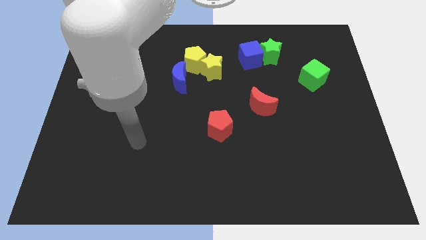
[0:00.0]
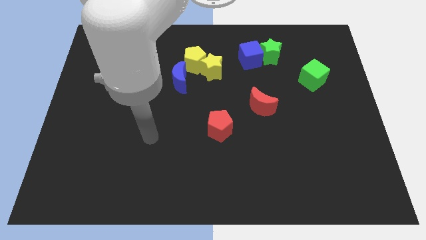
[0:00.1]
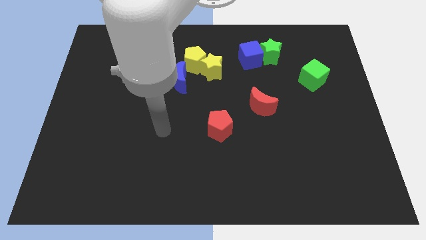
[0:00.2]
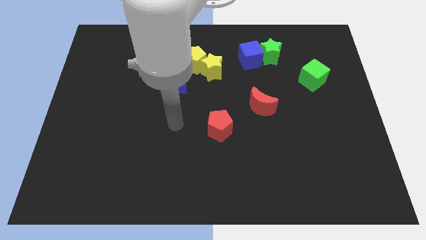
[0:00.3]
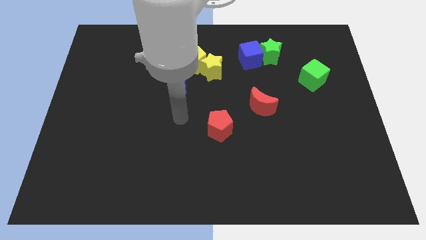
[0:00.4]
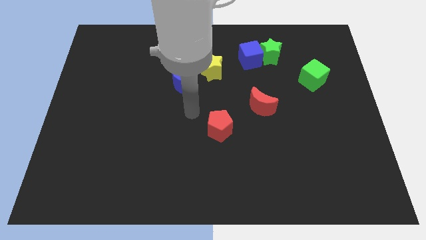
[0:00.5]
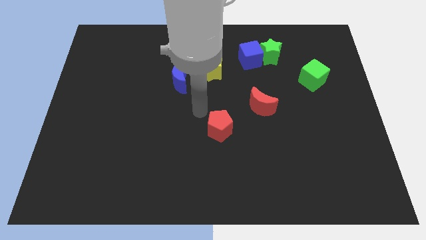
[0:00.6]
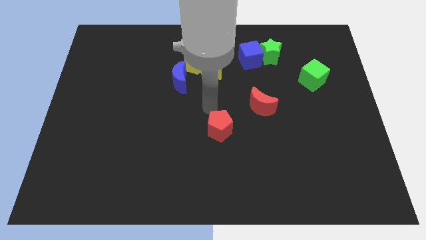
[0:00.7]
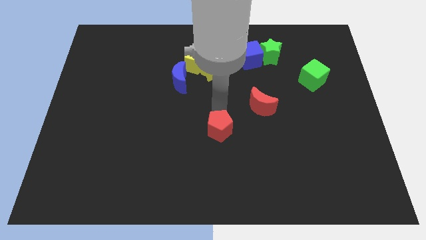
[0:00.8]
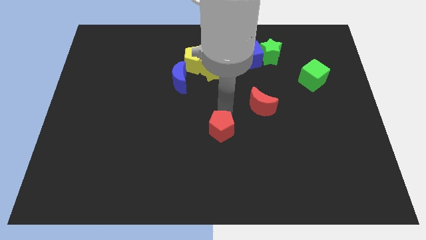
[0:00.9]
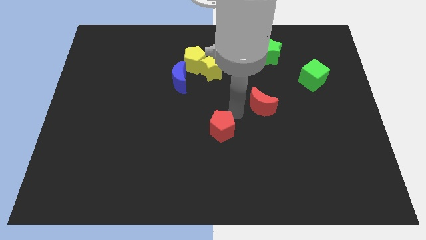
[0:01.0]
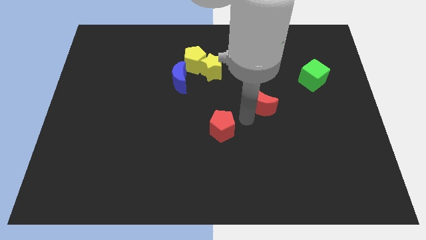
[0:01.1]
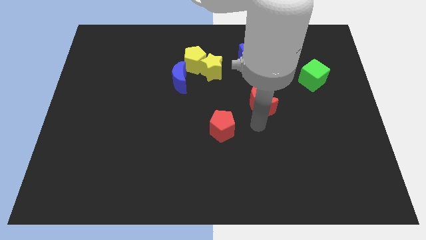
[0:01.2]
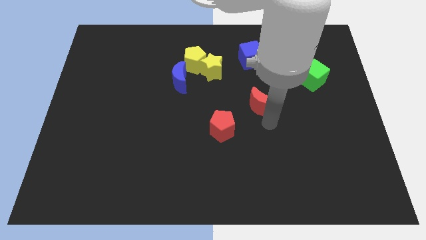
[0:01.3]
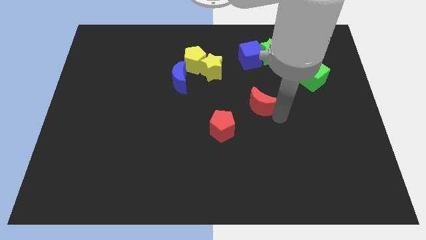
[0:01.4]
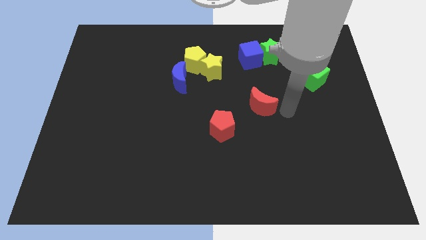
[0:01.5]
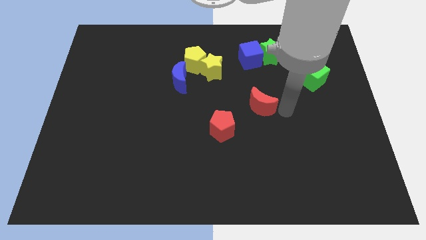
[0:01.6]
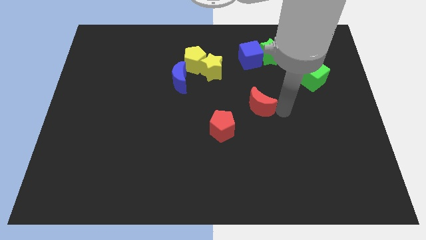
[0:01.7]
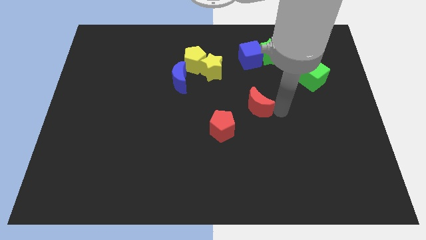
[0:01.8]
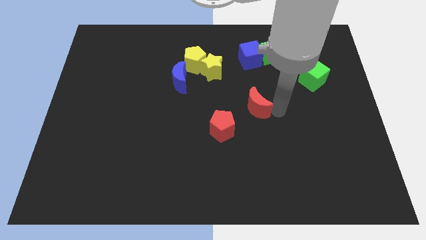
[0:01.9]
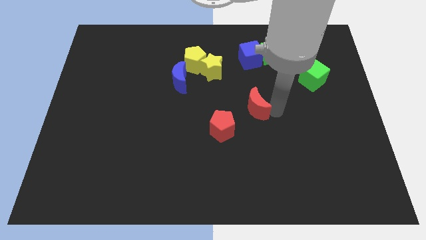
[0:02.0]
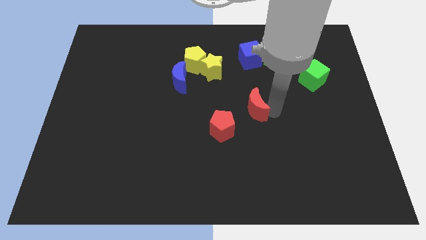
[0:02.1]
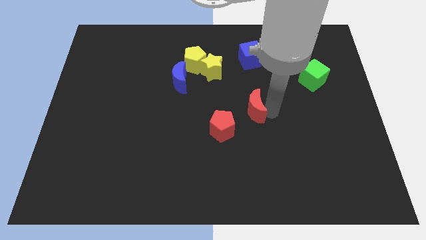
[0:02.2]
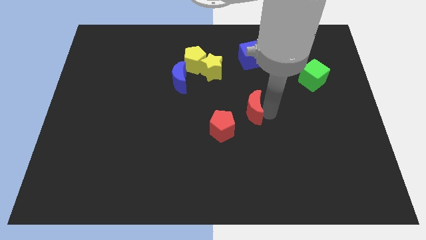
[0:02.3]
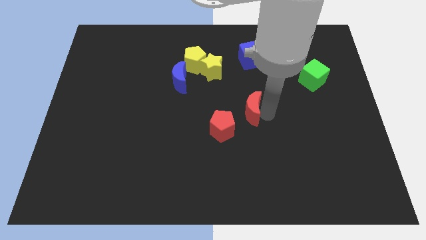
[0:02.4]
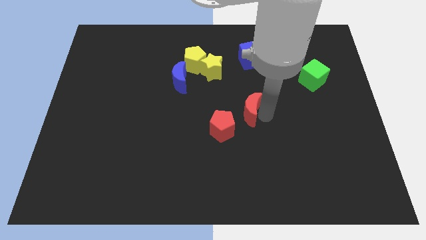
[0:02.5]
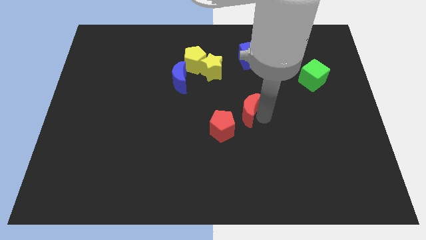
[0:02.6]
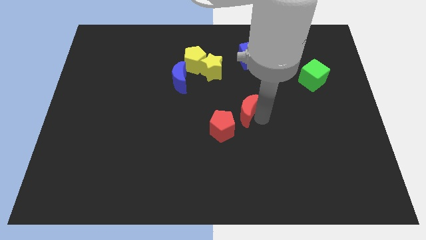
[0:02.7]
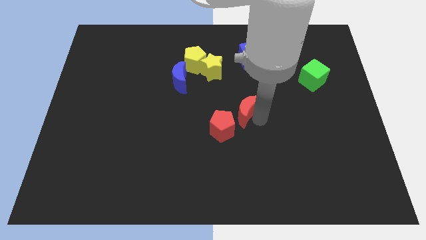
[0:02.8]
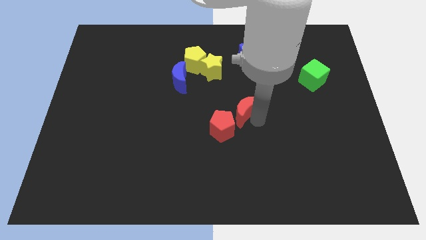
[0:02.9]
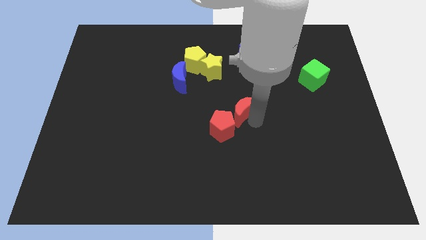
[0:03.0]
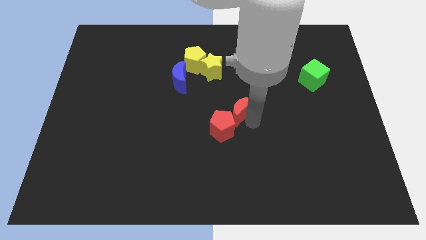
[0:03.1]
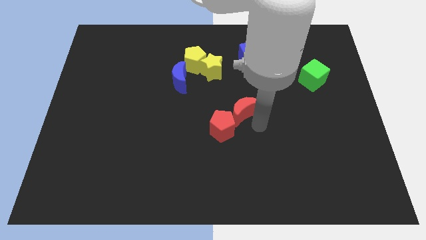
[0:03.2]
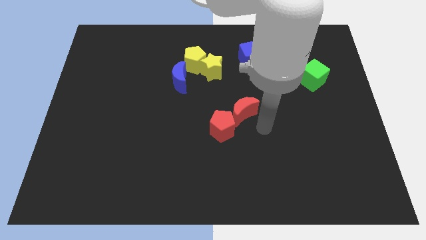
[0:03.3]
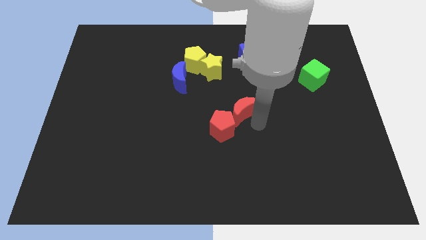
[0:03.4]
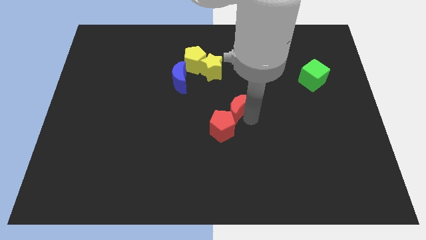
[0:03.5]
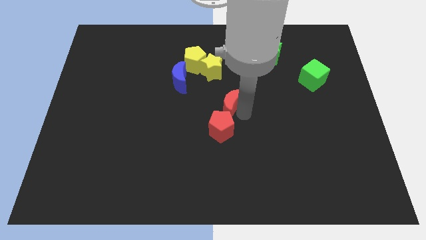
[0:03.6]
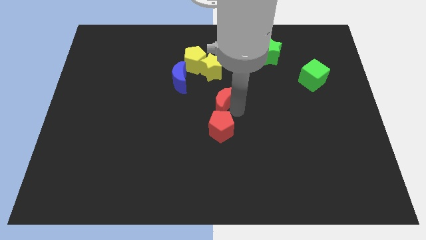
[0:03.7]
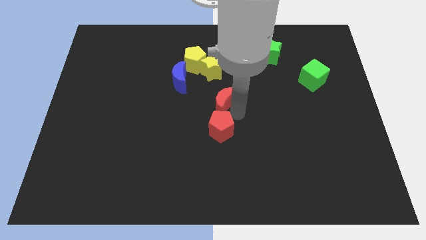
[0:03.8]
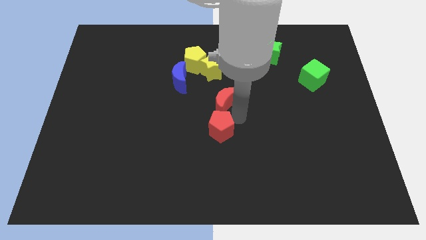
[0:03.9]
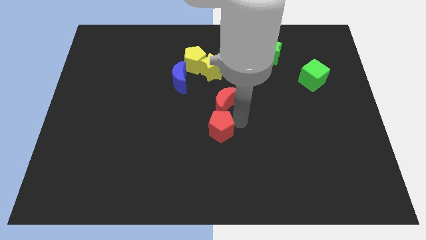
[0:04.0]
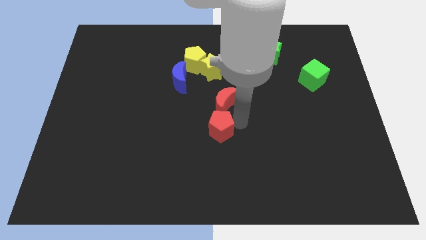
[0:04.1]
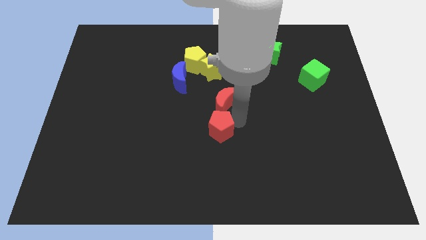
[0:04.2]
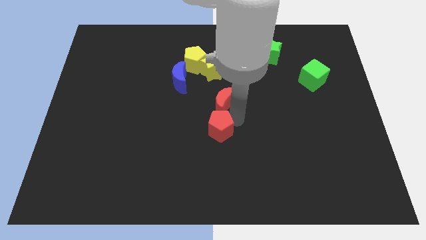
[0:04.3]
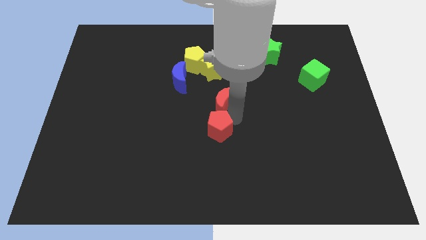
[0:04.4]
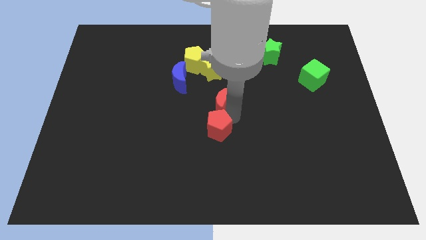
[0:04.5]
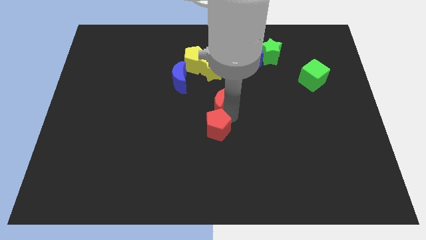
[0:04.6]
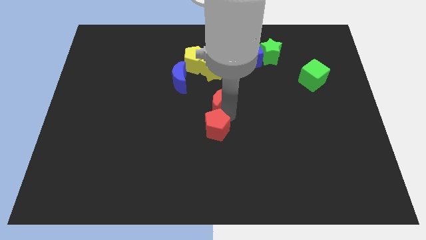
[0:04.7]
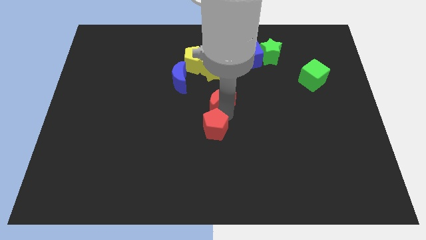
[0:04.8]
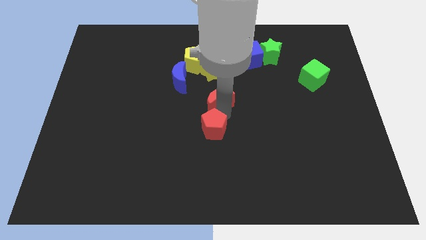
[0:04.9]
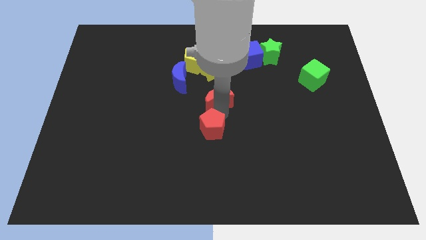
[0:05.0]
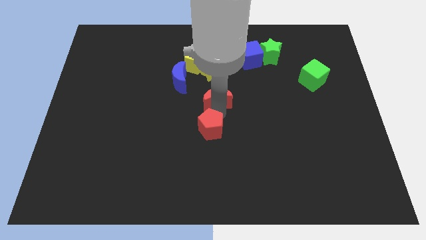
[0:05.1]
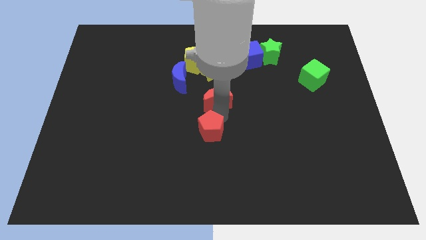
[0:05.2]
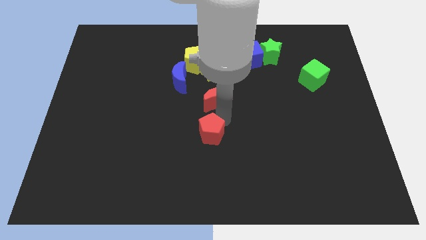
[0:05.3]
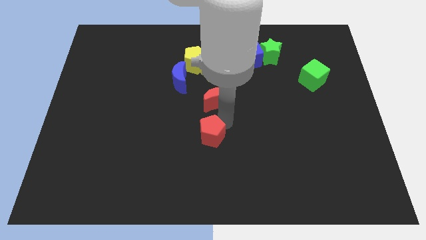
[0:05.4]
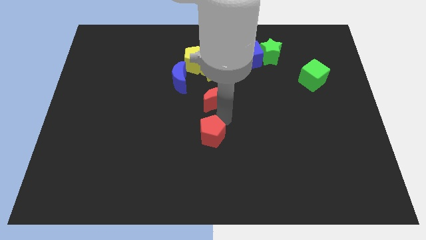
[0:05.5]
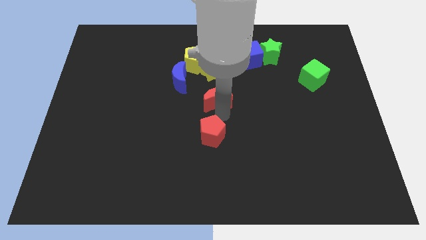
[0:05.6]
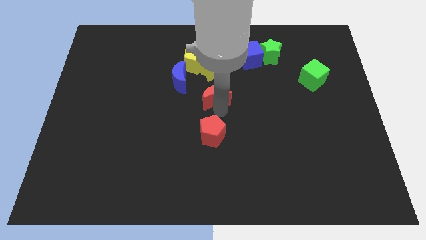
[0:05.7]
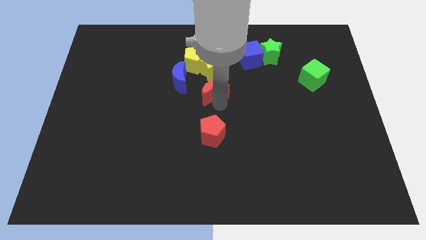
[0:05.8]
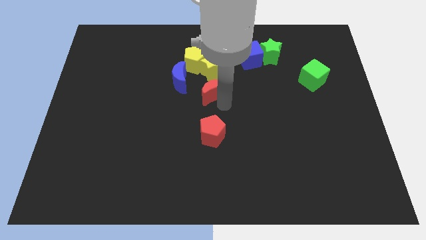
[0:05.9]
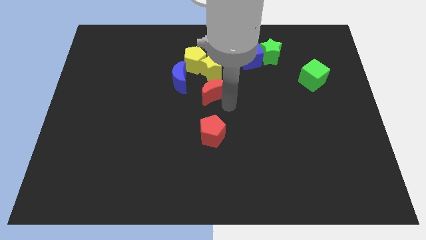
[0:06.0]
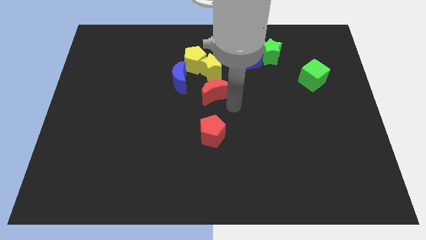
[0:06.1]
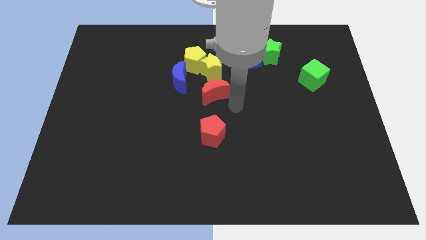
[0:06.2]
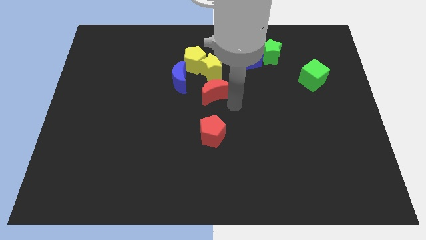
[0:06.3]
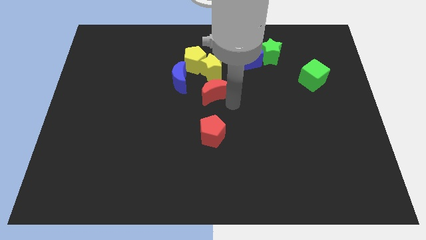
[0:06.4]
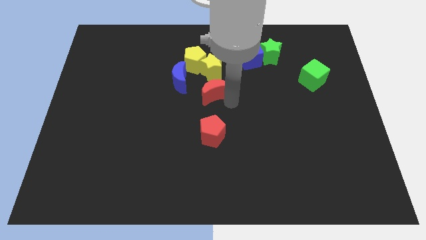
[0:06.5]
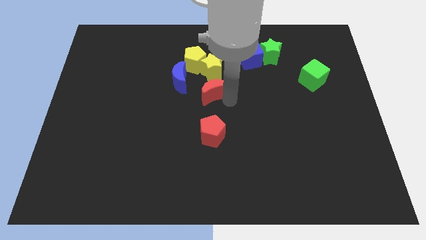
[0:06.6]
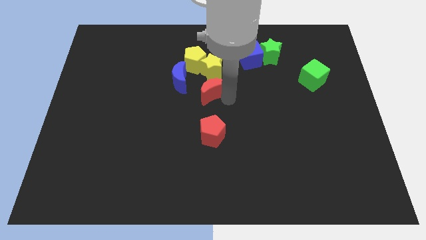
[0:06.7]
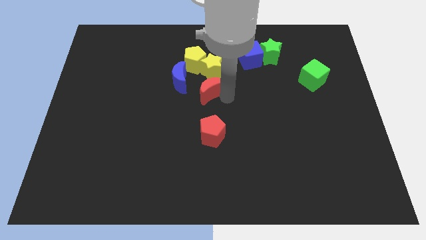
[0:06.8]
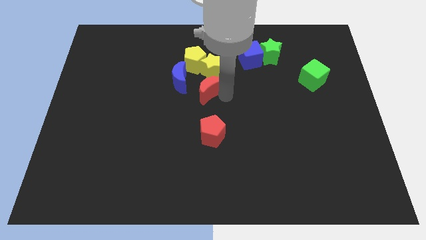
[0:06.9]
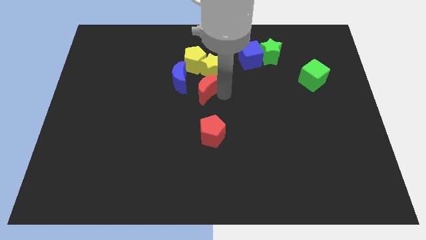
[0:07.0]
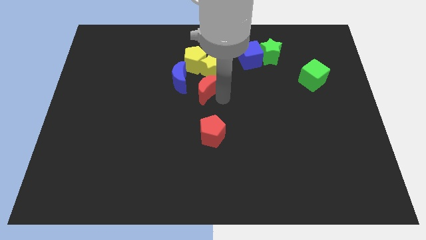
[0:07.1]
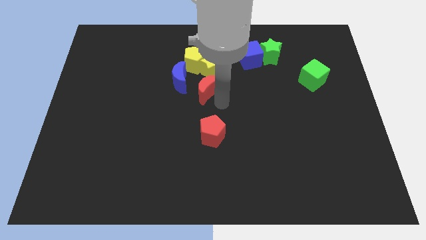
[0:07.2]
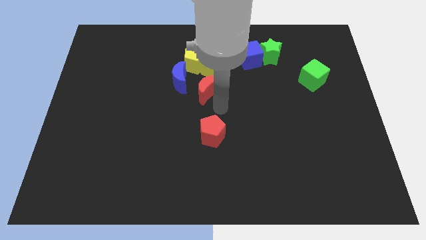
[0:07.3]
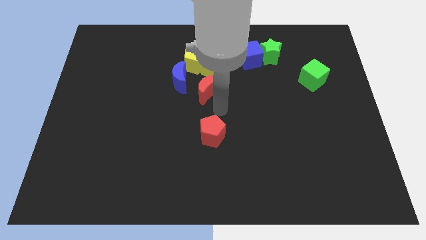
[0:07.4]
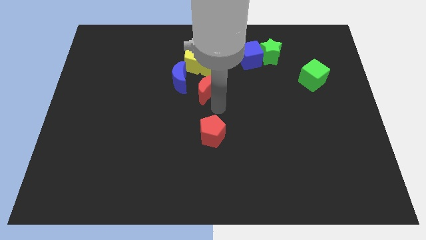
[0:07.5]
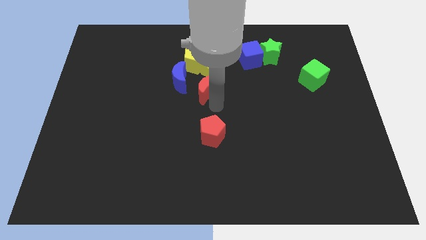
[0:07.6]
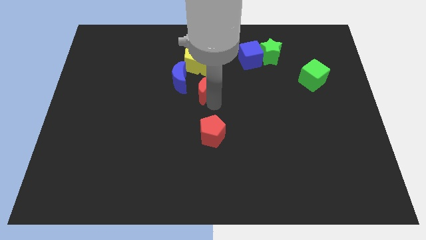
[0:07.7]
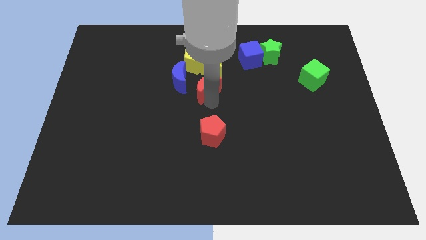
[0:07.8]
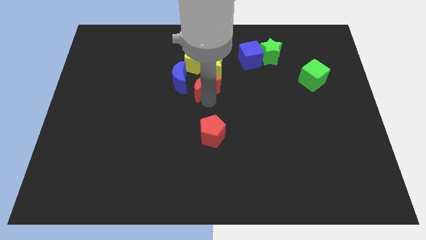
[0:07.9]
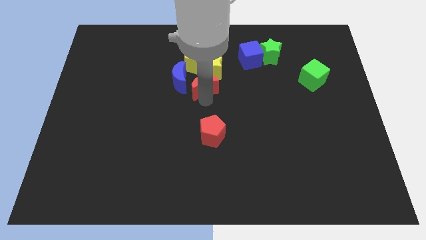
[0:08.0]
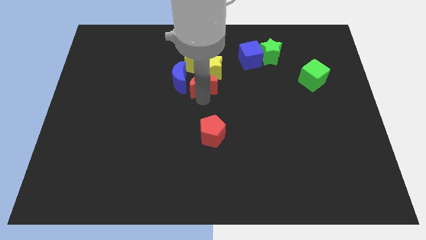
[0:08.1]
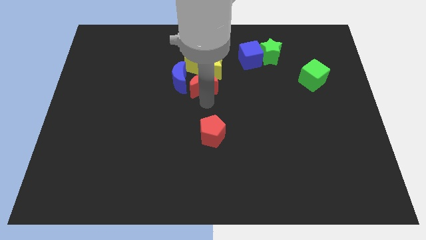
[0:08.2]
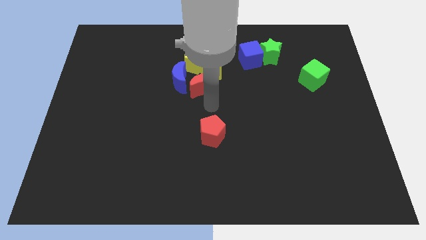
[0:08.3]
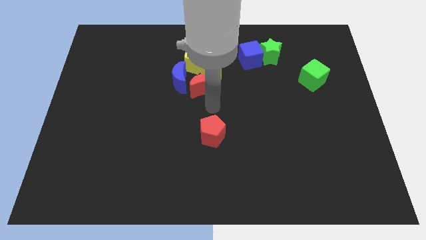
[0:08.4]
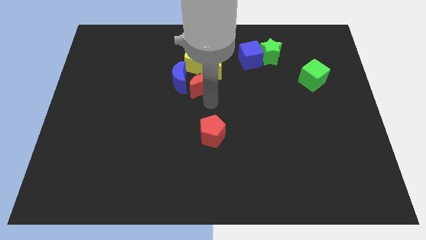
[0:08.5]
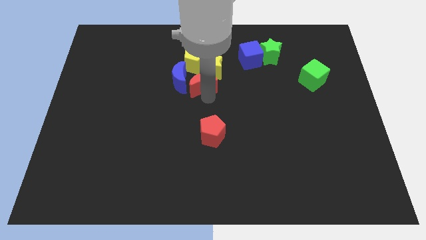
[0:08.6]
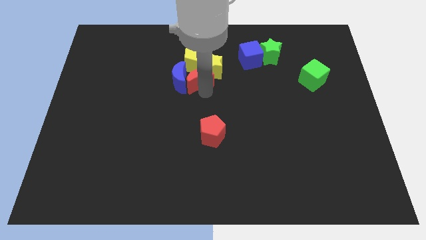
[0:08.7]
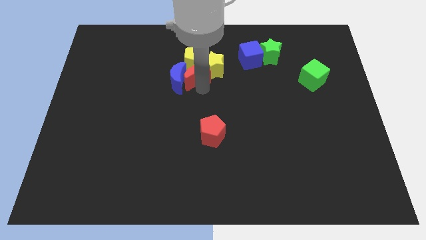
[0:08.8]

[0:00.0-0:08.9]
move the red moon close to the yellow pentagon
